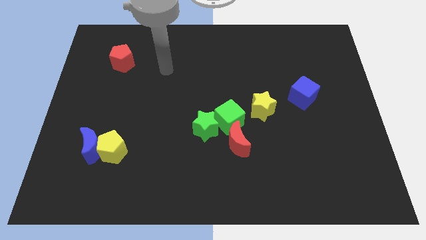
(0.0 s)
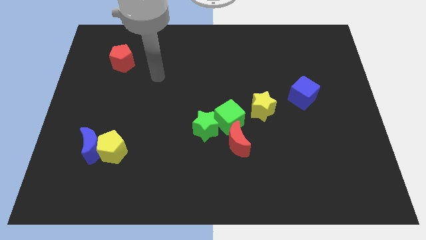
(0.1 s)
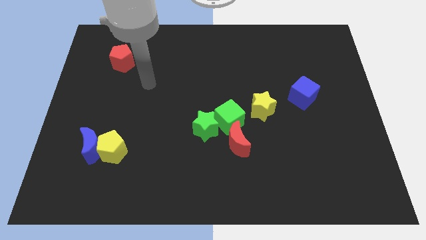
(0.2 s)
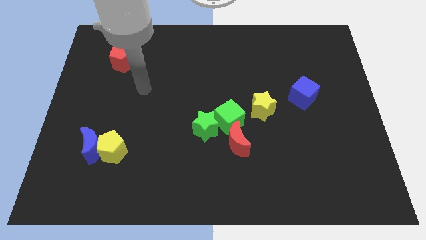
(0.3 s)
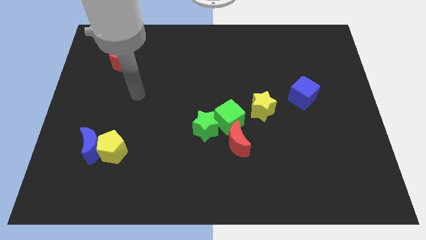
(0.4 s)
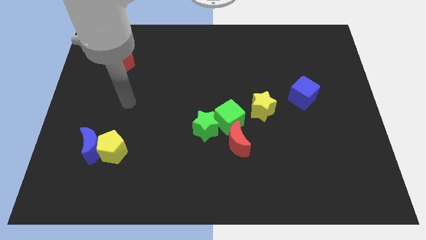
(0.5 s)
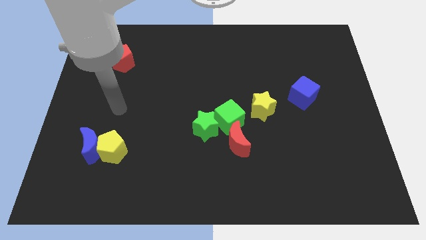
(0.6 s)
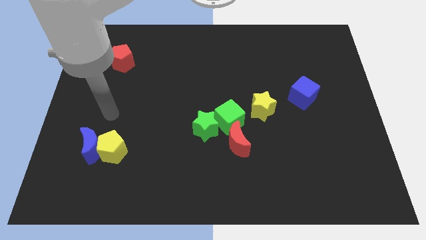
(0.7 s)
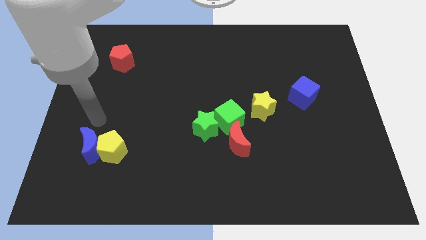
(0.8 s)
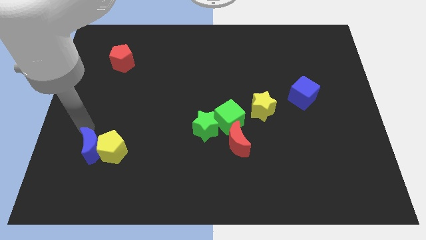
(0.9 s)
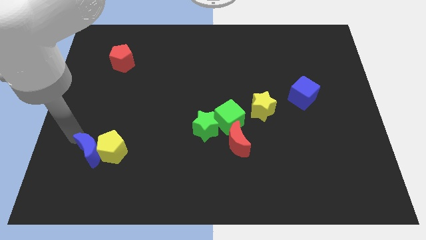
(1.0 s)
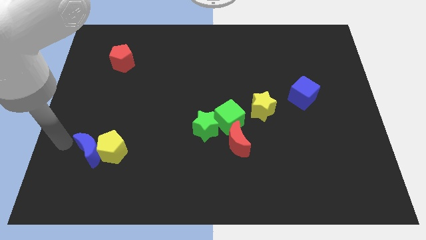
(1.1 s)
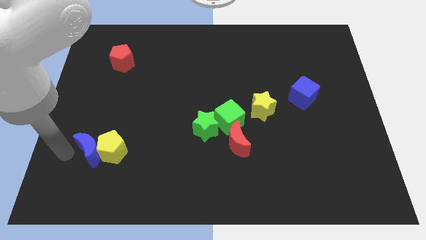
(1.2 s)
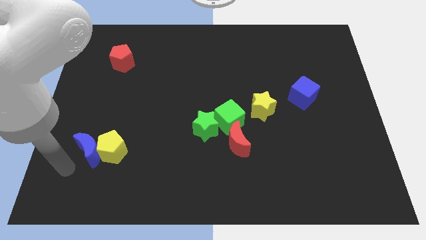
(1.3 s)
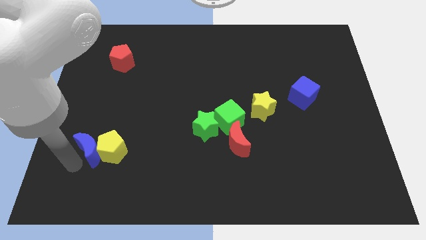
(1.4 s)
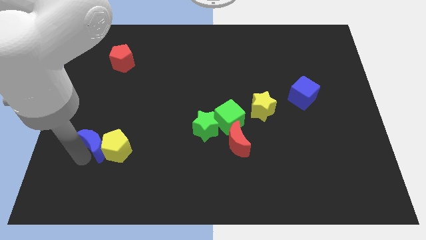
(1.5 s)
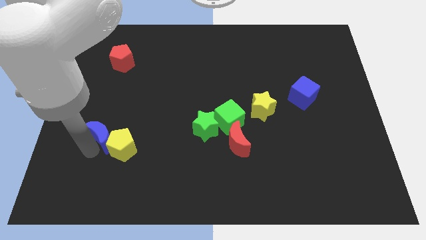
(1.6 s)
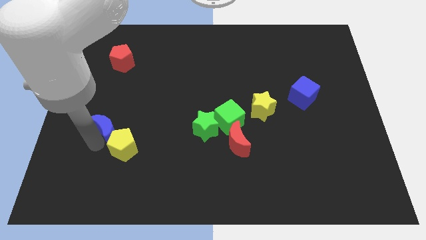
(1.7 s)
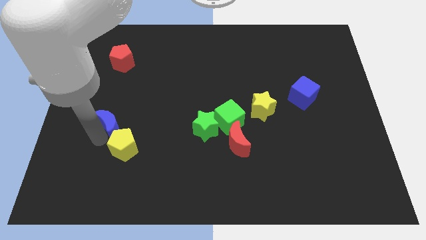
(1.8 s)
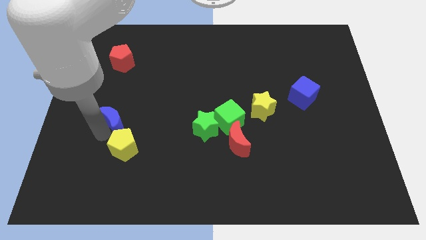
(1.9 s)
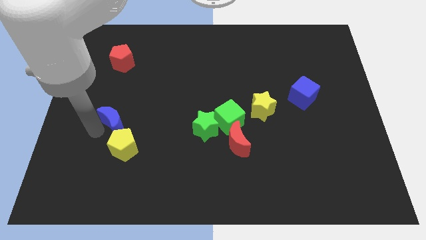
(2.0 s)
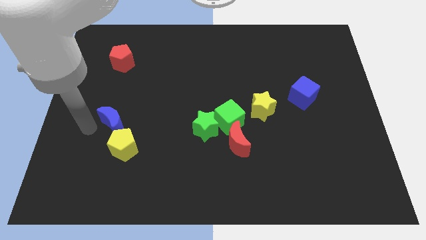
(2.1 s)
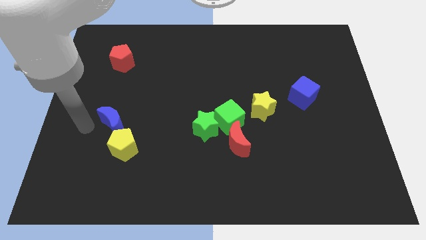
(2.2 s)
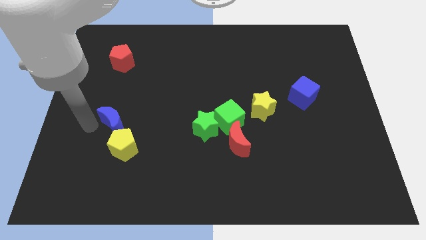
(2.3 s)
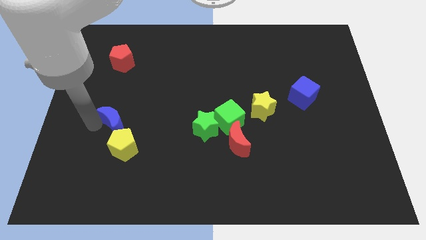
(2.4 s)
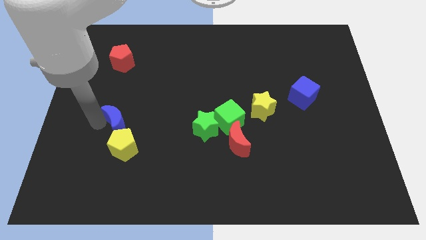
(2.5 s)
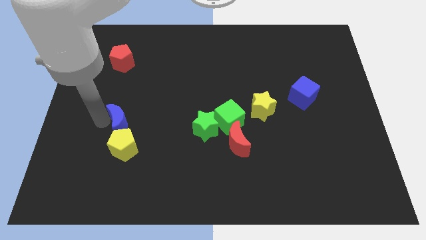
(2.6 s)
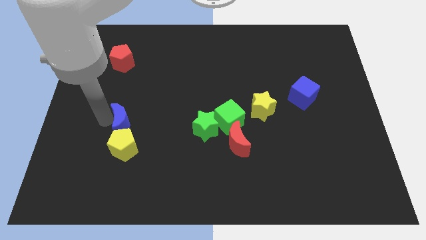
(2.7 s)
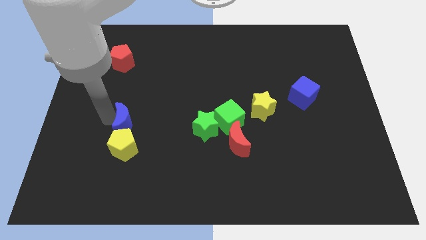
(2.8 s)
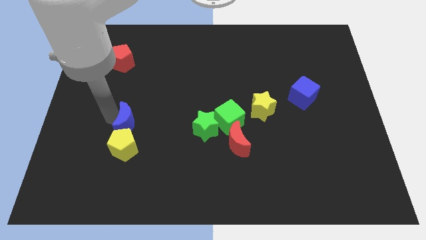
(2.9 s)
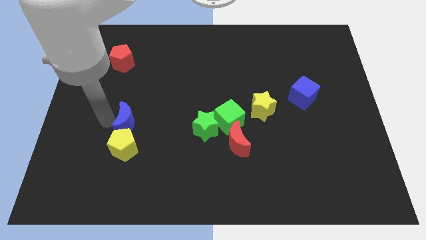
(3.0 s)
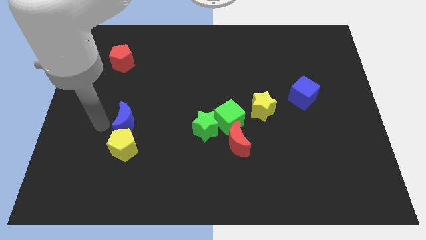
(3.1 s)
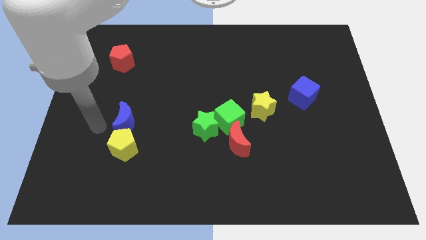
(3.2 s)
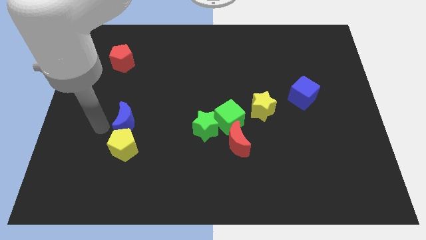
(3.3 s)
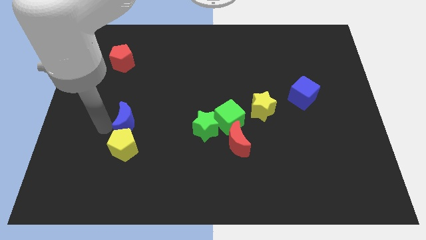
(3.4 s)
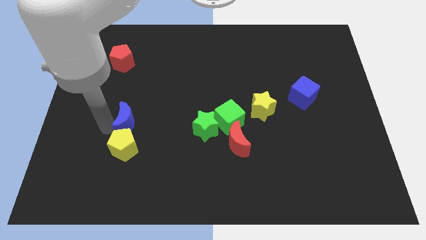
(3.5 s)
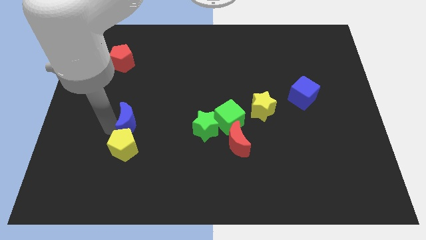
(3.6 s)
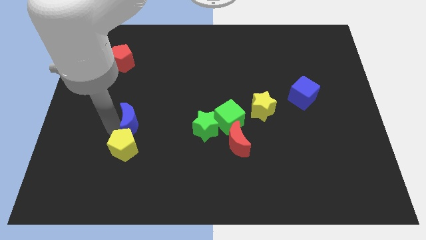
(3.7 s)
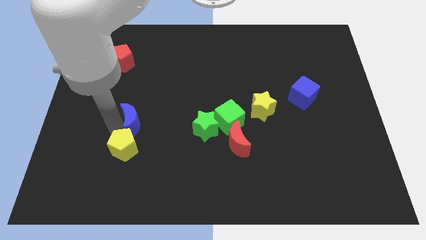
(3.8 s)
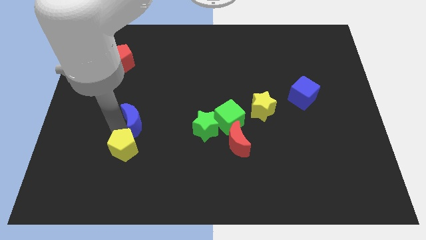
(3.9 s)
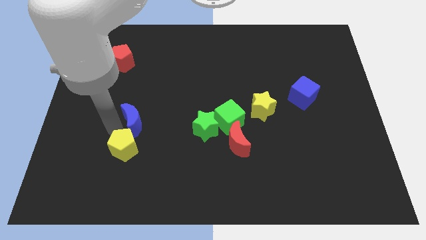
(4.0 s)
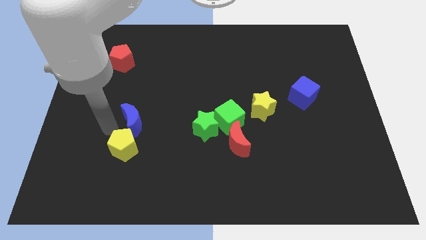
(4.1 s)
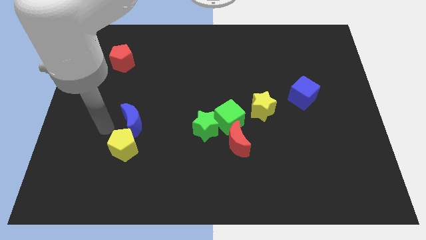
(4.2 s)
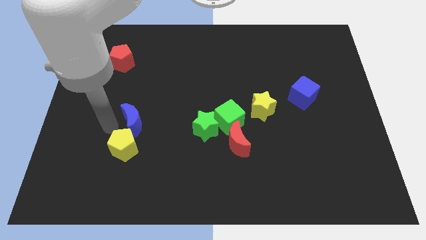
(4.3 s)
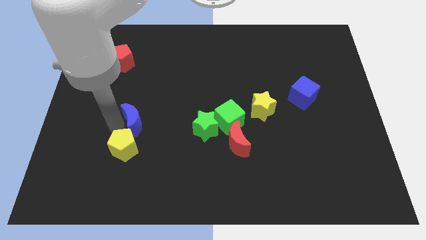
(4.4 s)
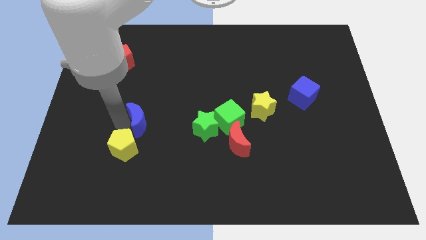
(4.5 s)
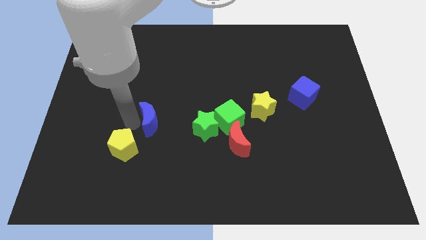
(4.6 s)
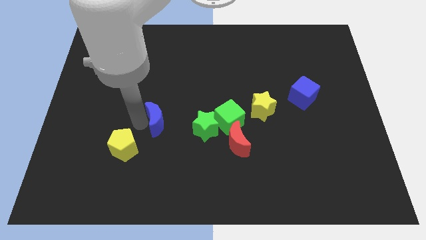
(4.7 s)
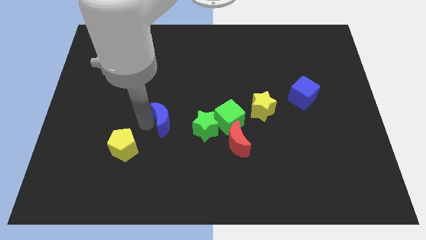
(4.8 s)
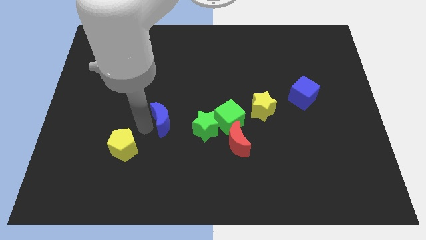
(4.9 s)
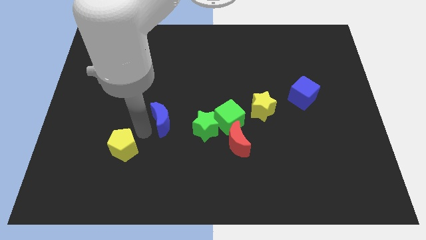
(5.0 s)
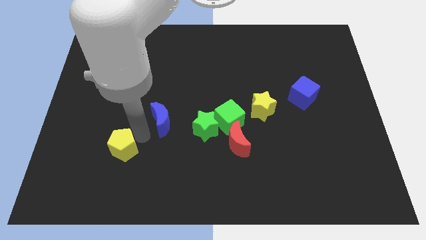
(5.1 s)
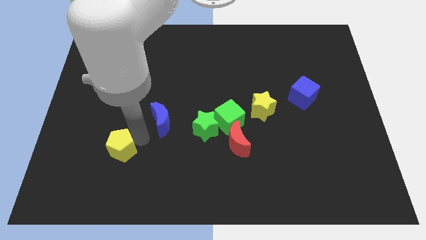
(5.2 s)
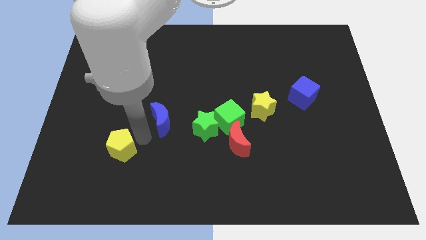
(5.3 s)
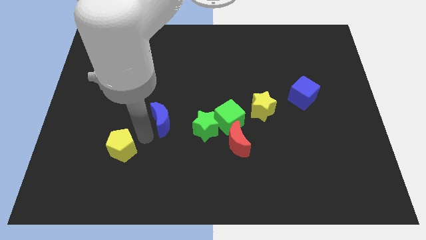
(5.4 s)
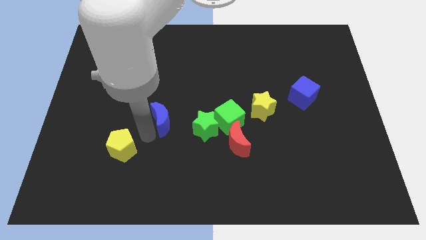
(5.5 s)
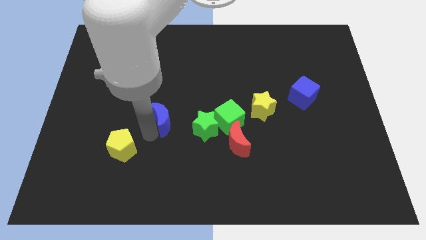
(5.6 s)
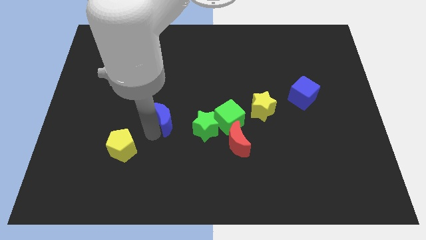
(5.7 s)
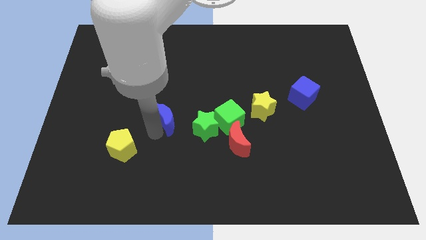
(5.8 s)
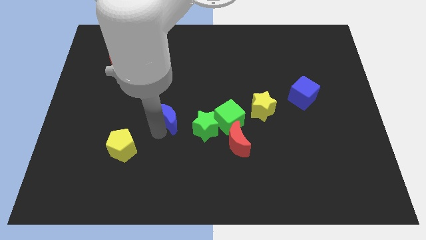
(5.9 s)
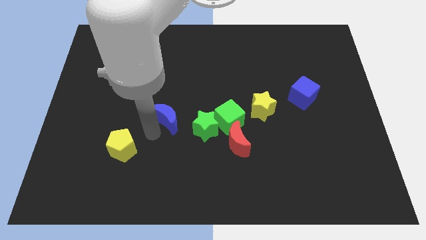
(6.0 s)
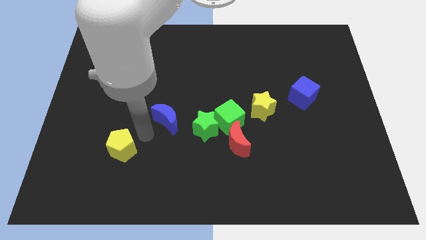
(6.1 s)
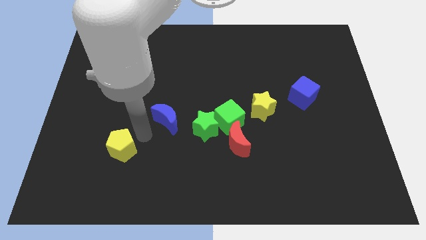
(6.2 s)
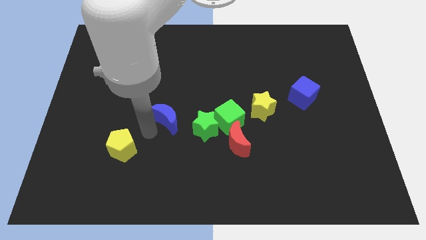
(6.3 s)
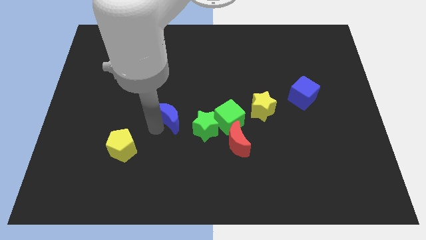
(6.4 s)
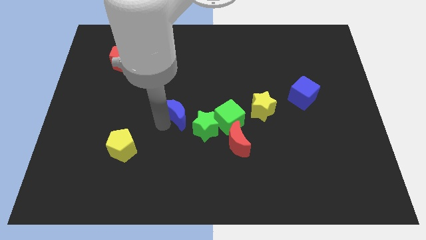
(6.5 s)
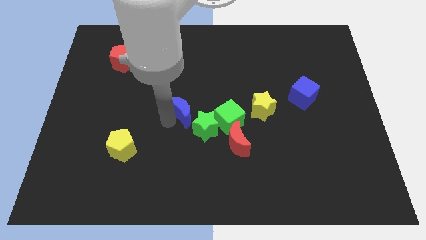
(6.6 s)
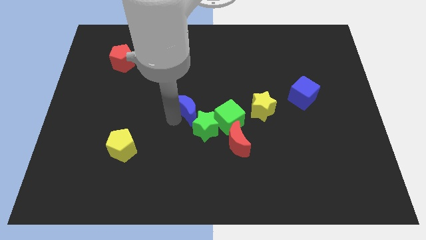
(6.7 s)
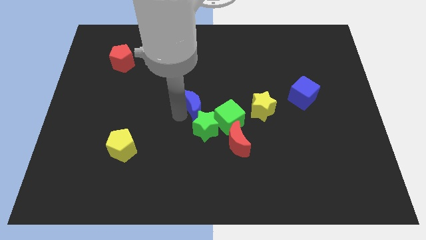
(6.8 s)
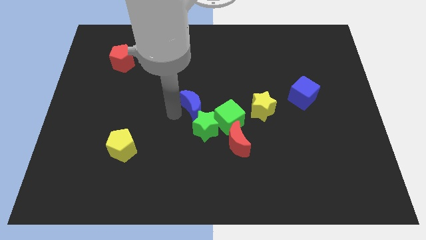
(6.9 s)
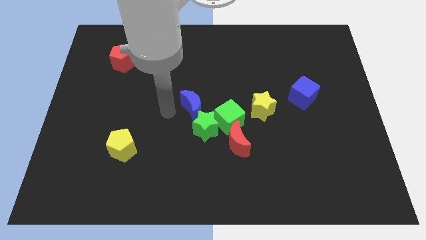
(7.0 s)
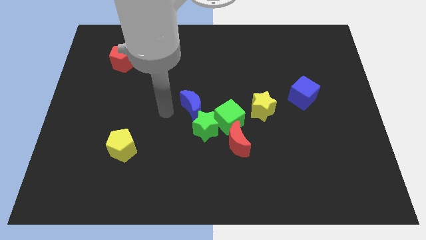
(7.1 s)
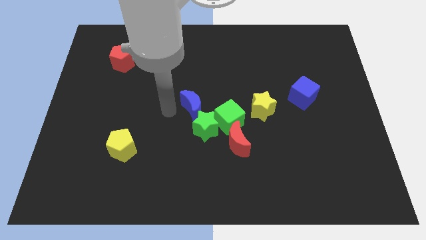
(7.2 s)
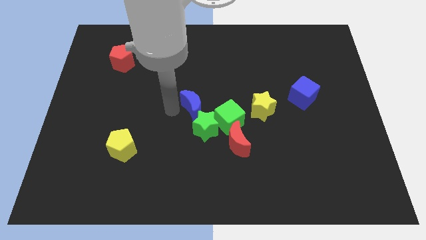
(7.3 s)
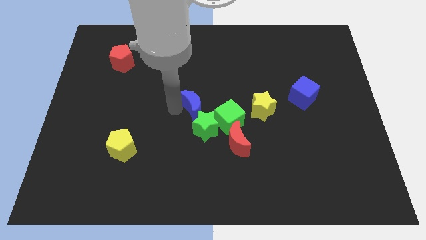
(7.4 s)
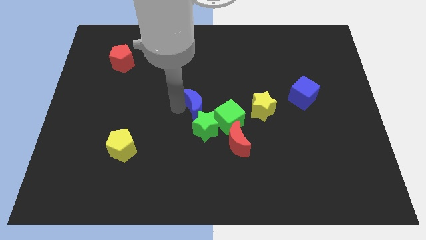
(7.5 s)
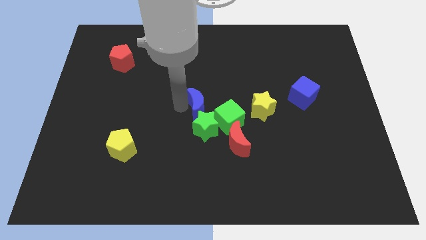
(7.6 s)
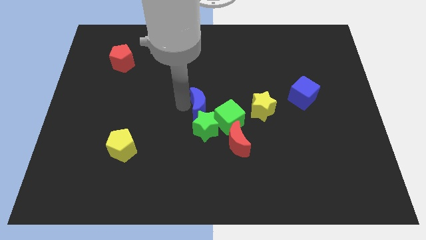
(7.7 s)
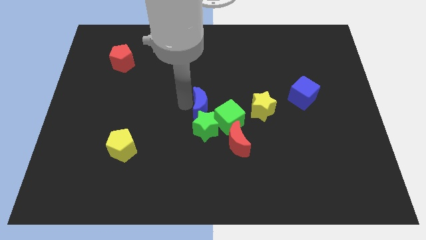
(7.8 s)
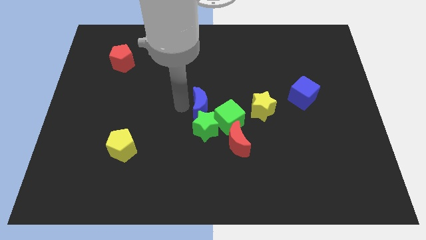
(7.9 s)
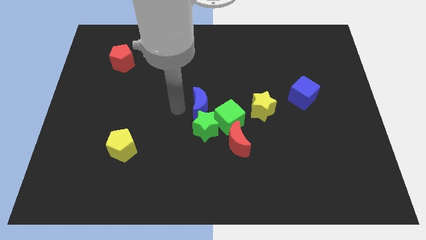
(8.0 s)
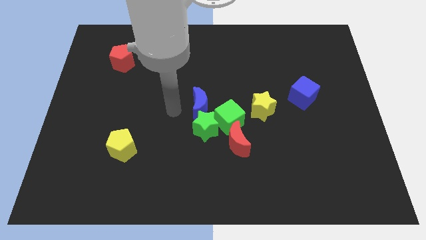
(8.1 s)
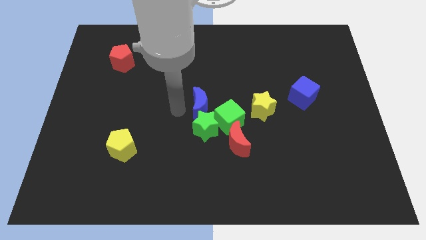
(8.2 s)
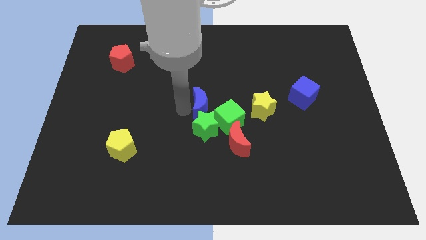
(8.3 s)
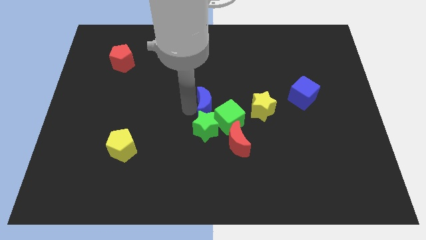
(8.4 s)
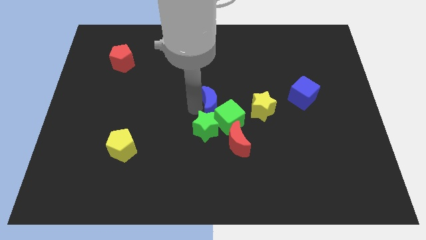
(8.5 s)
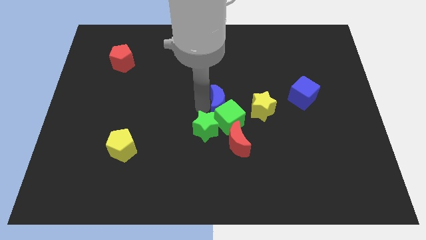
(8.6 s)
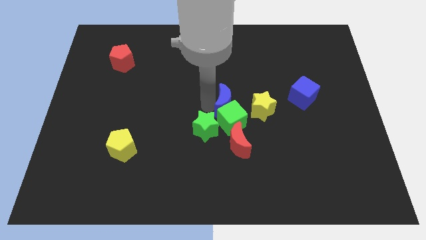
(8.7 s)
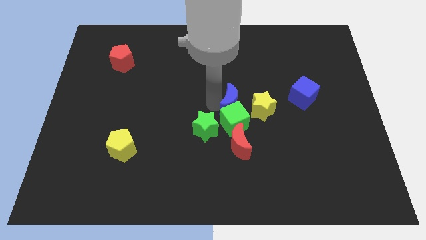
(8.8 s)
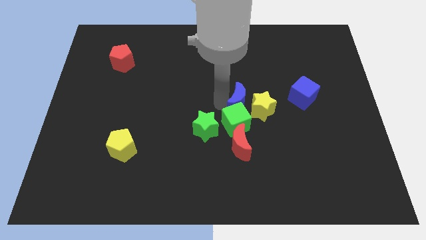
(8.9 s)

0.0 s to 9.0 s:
move the blue moon next to the yellow star
